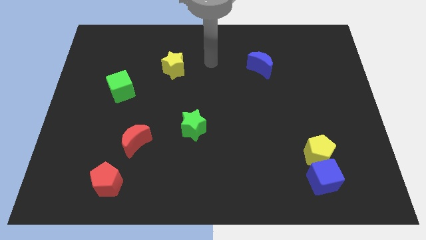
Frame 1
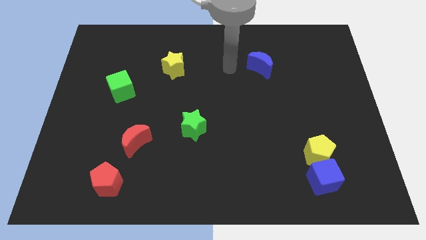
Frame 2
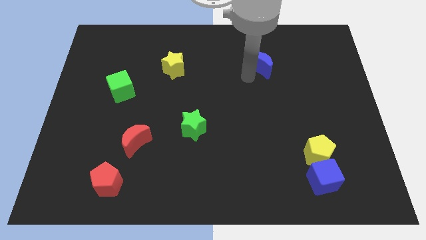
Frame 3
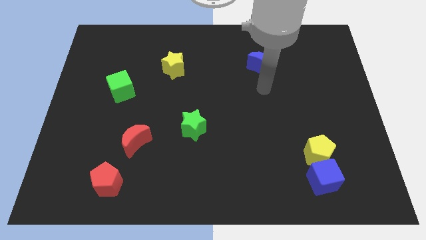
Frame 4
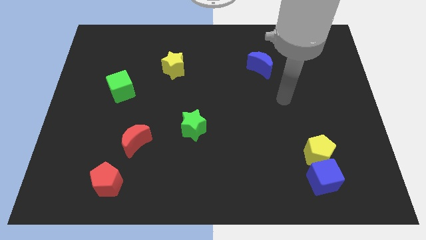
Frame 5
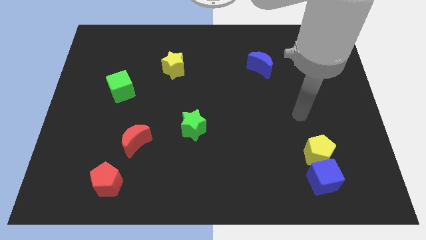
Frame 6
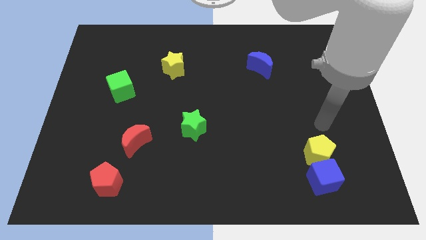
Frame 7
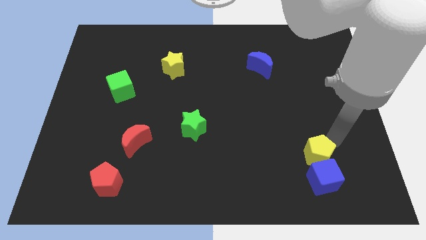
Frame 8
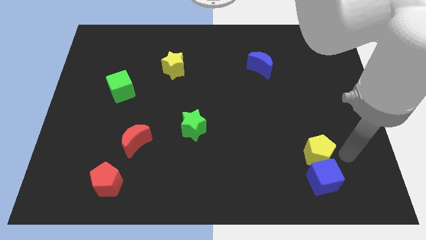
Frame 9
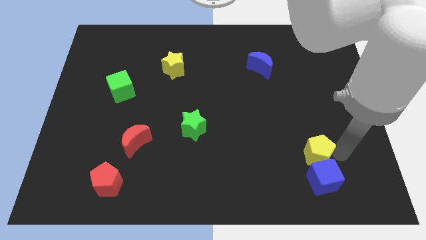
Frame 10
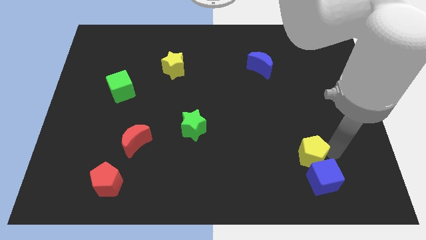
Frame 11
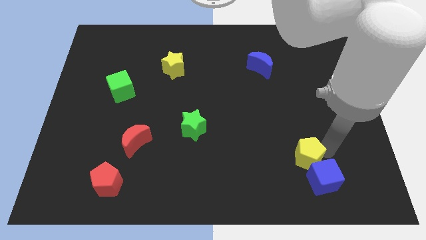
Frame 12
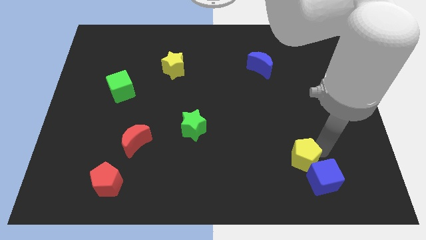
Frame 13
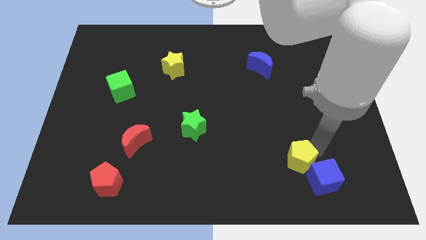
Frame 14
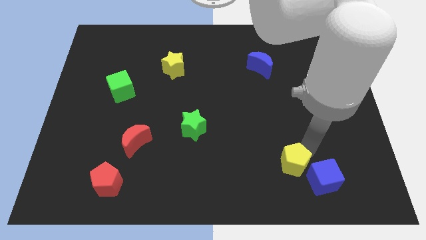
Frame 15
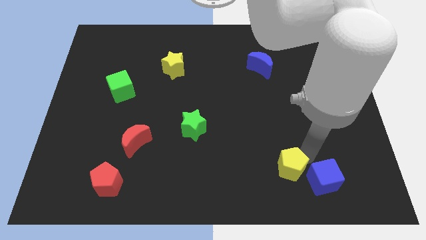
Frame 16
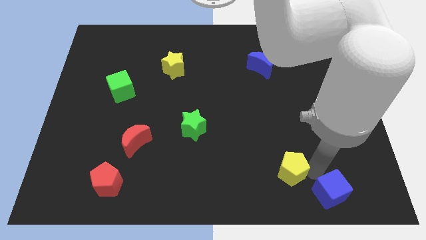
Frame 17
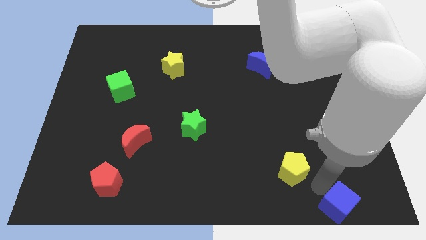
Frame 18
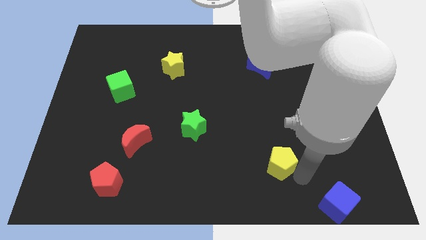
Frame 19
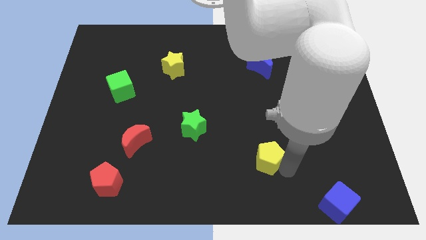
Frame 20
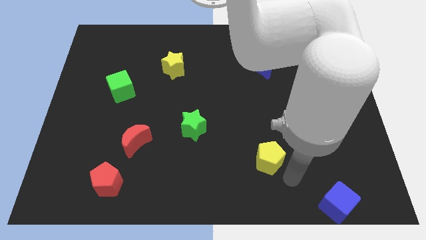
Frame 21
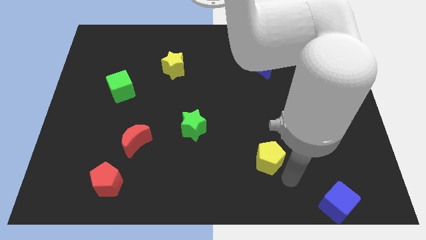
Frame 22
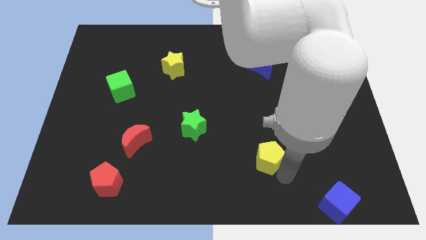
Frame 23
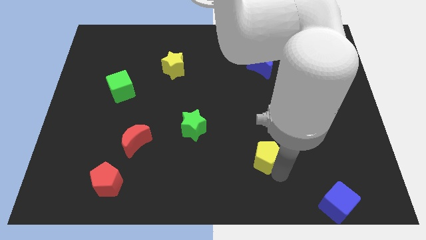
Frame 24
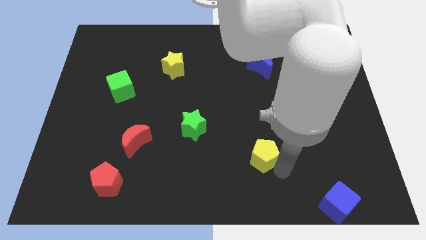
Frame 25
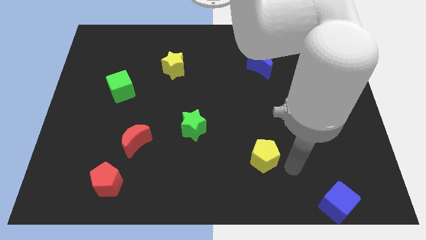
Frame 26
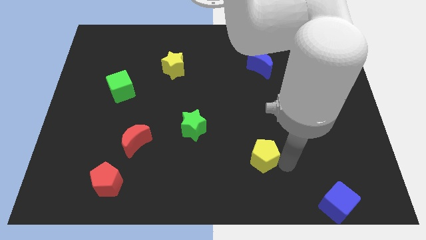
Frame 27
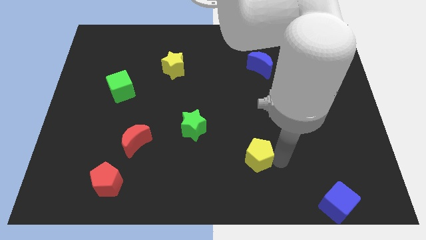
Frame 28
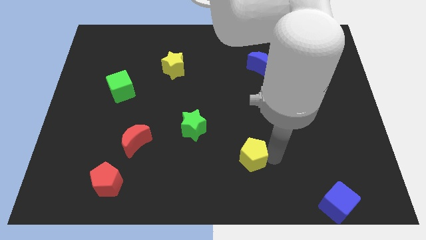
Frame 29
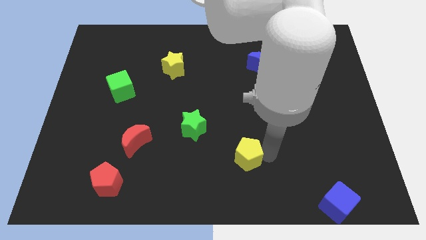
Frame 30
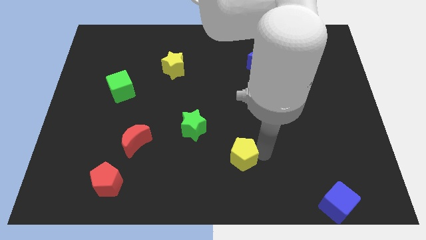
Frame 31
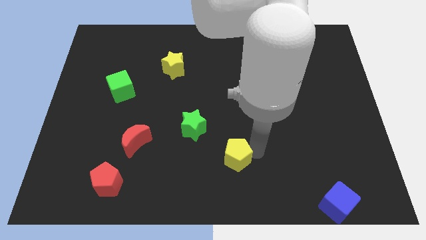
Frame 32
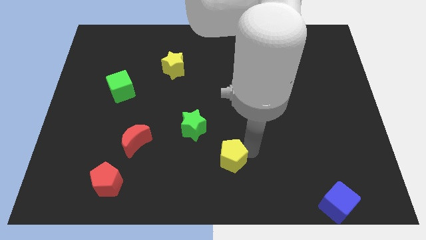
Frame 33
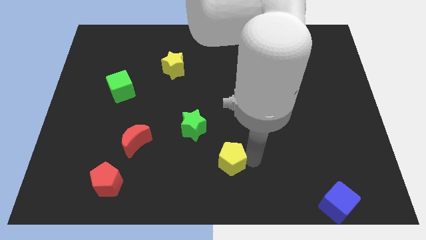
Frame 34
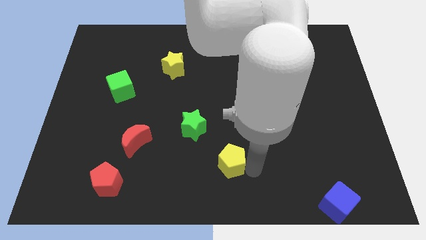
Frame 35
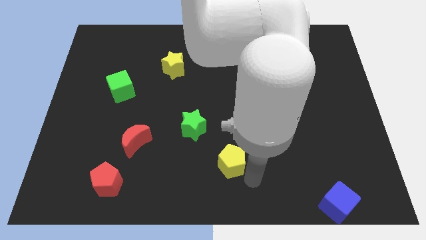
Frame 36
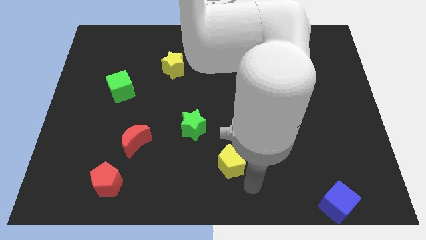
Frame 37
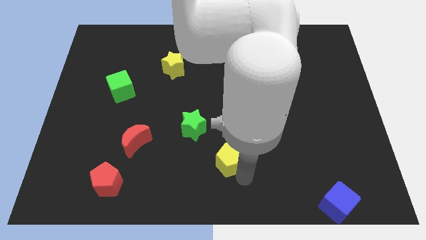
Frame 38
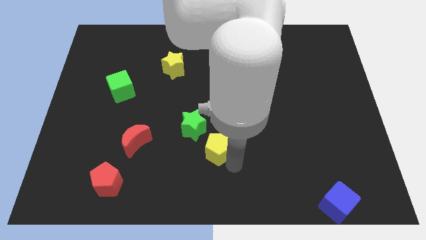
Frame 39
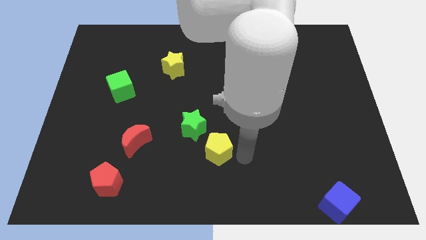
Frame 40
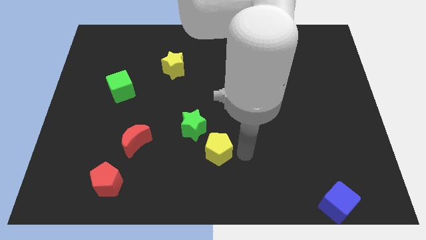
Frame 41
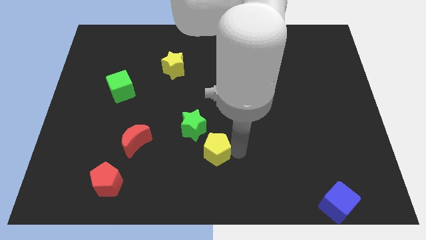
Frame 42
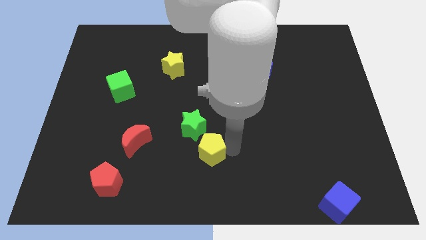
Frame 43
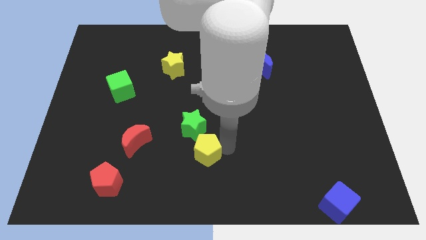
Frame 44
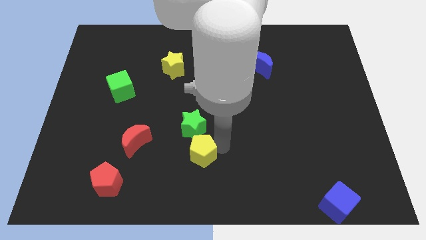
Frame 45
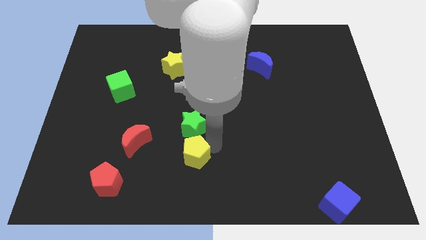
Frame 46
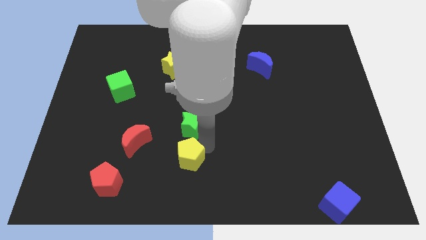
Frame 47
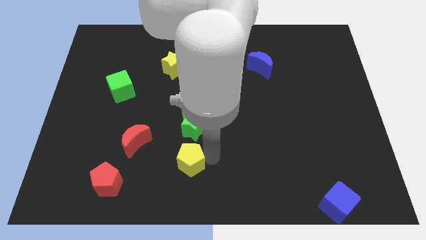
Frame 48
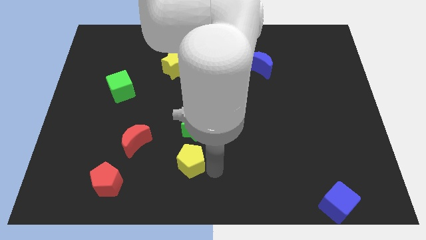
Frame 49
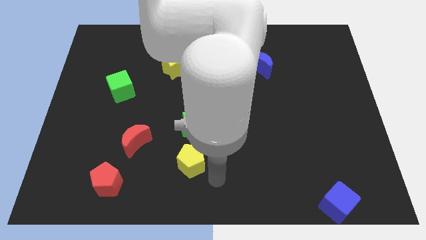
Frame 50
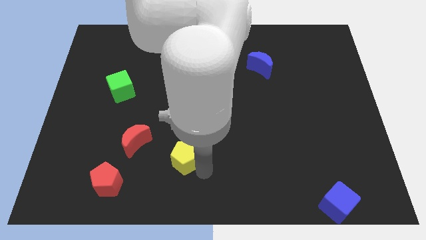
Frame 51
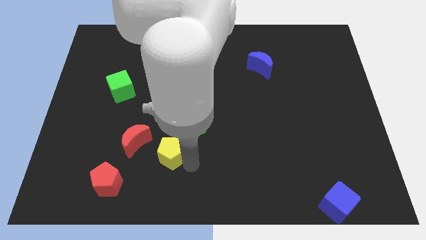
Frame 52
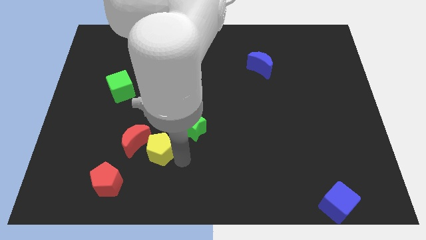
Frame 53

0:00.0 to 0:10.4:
move the yellow pentagon towards the red moon

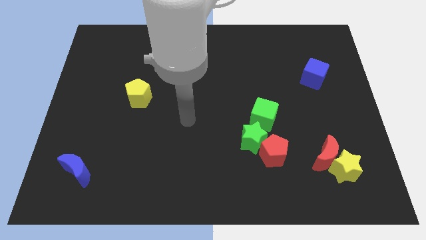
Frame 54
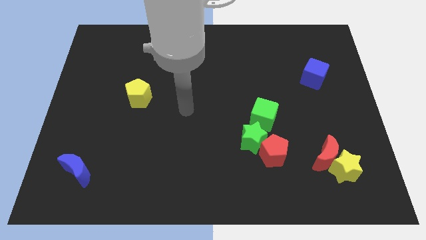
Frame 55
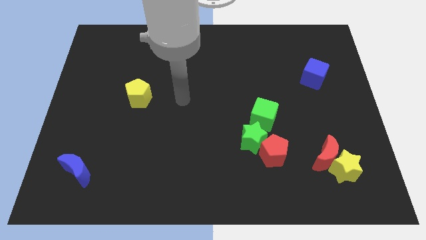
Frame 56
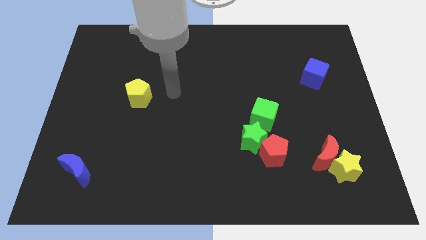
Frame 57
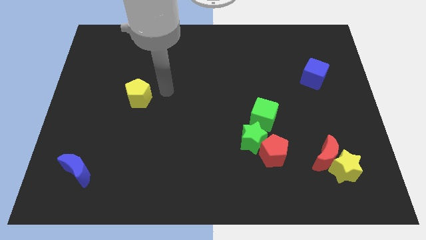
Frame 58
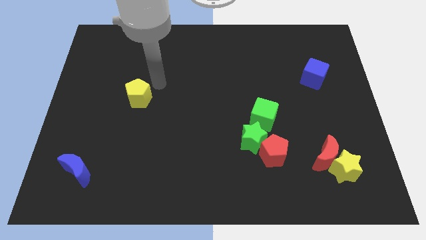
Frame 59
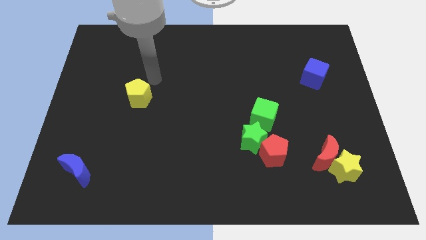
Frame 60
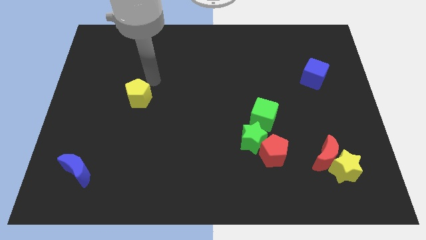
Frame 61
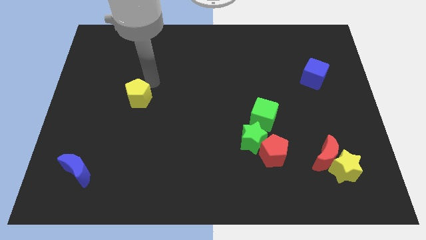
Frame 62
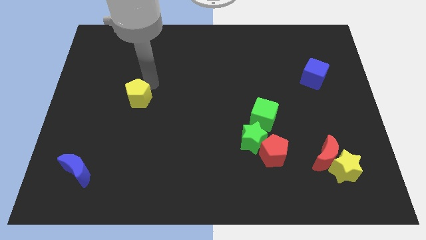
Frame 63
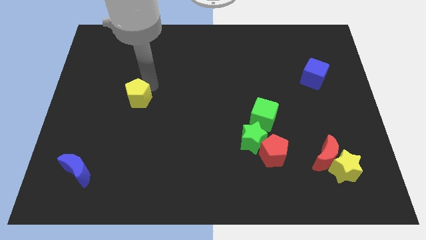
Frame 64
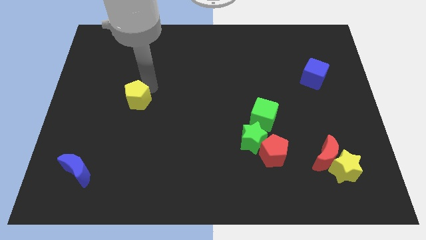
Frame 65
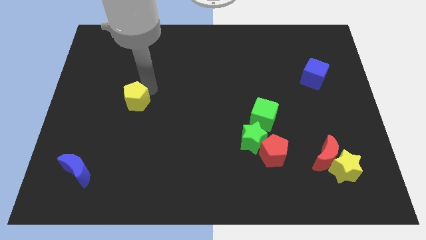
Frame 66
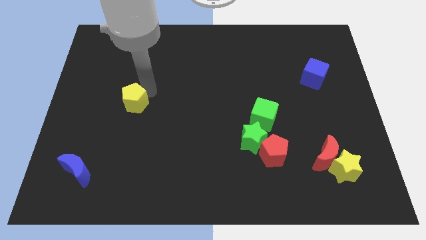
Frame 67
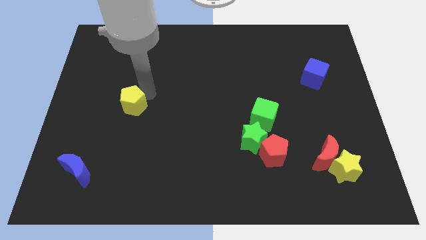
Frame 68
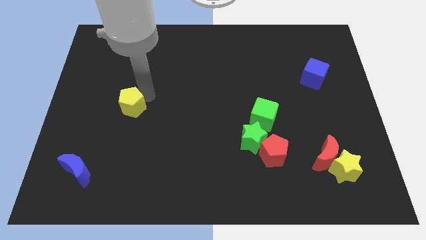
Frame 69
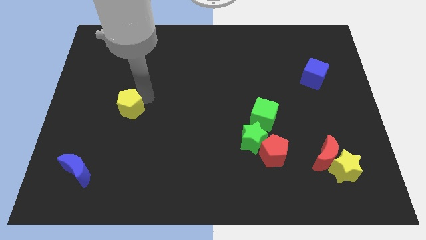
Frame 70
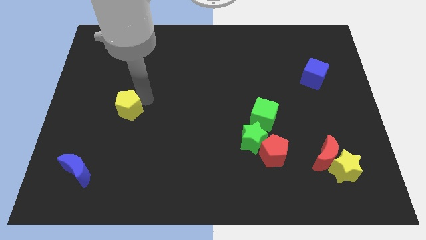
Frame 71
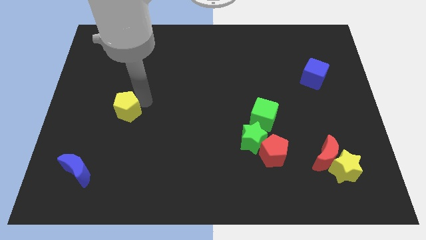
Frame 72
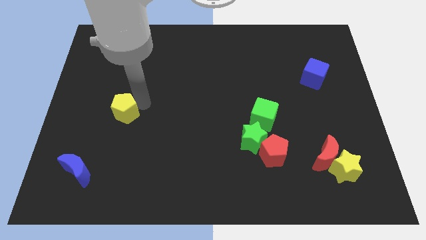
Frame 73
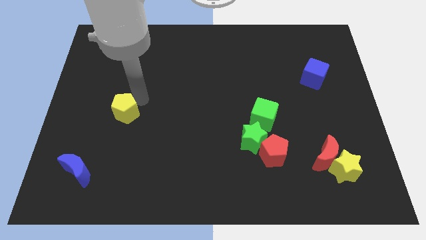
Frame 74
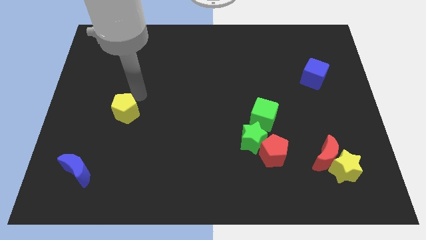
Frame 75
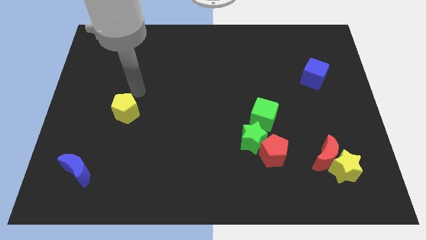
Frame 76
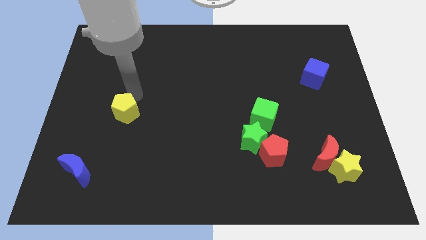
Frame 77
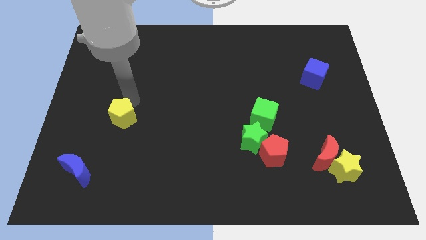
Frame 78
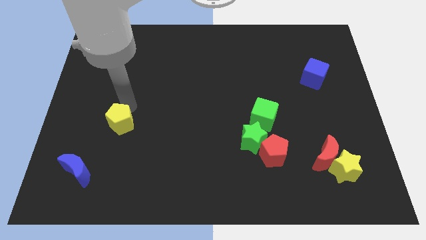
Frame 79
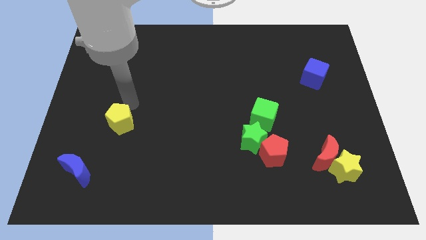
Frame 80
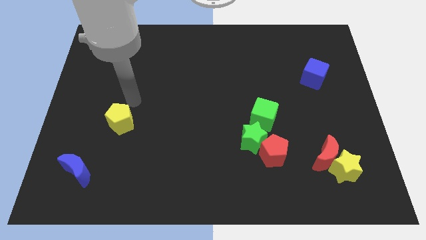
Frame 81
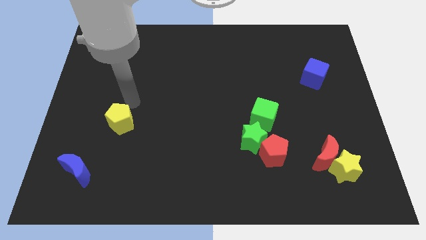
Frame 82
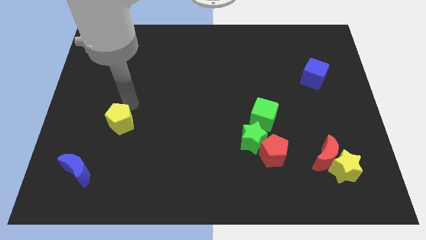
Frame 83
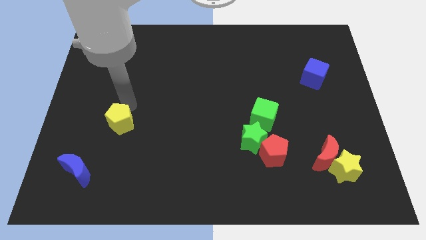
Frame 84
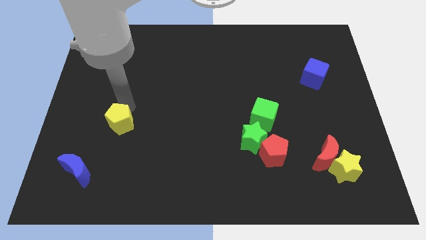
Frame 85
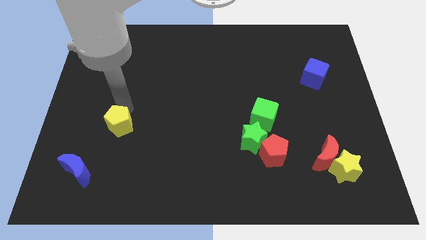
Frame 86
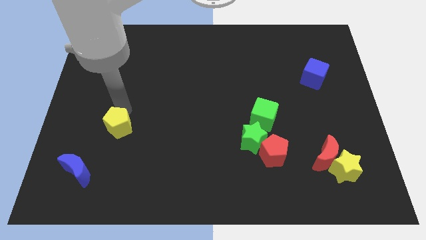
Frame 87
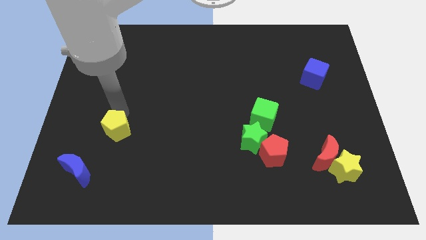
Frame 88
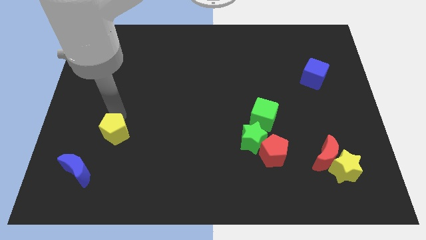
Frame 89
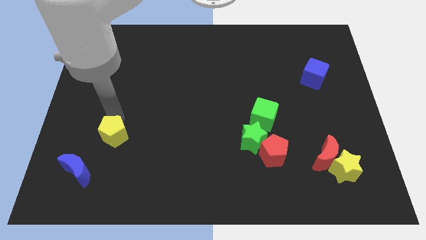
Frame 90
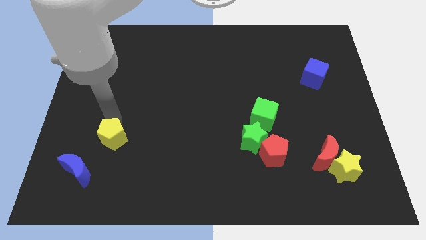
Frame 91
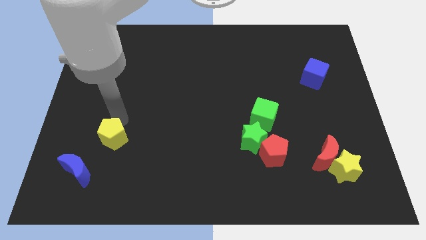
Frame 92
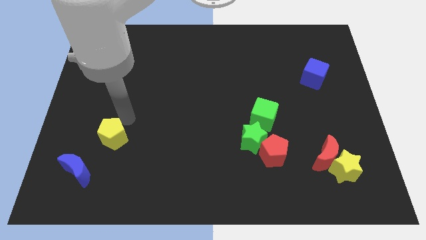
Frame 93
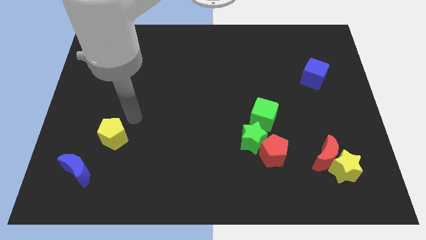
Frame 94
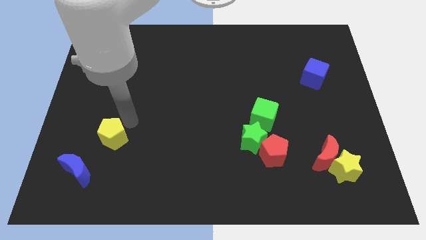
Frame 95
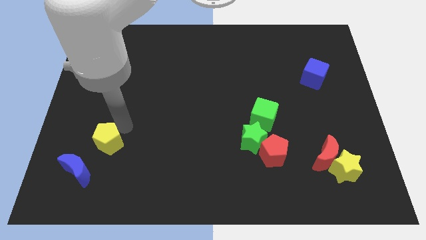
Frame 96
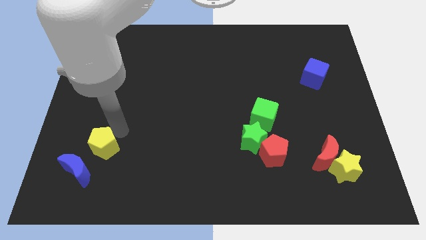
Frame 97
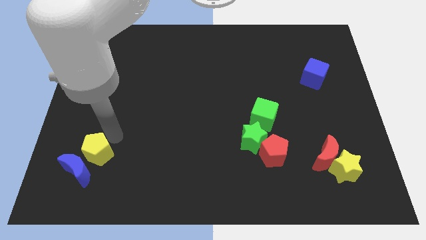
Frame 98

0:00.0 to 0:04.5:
slide the yellow pentagon to the blue moon
